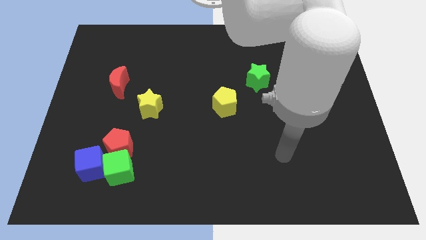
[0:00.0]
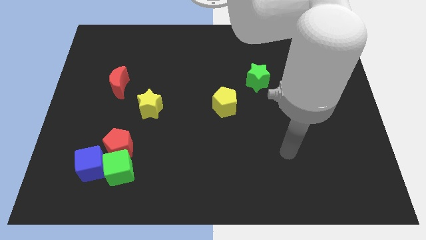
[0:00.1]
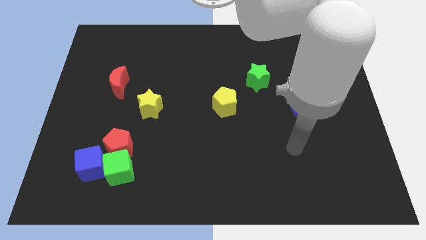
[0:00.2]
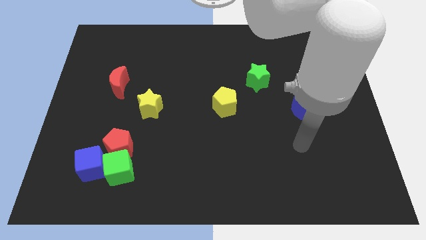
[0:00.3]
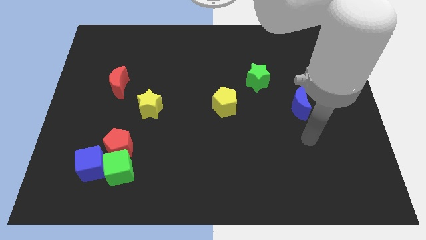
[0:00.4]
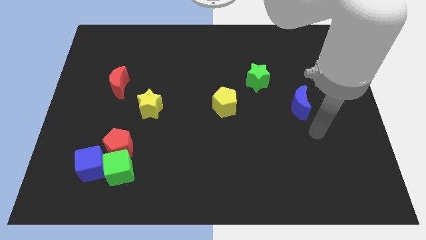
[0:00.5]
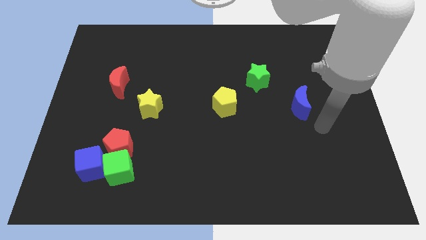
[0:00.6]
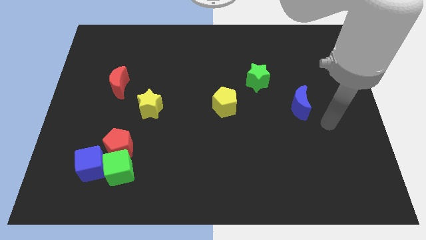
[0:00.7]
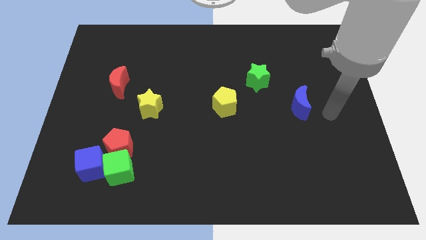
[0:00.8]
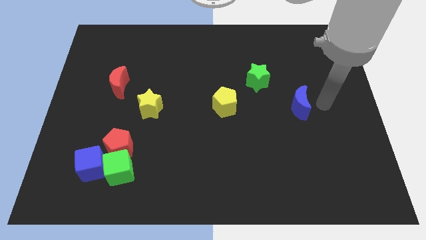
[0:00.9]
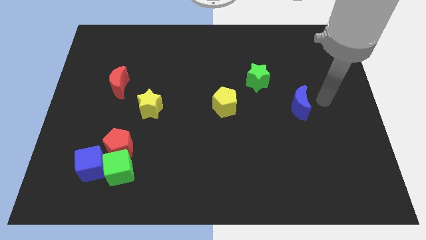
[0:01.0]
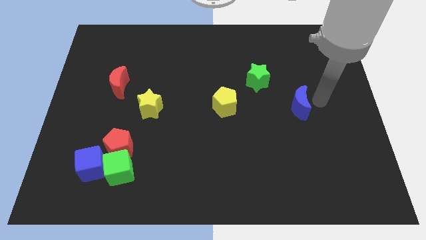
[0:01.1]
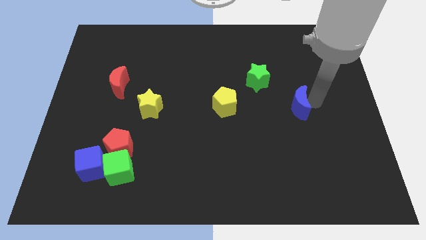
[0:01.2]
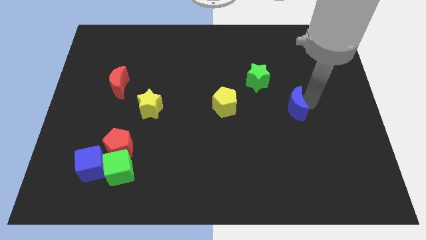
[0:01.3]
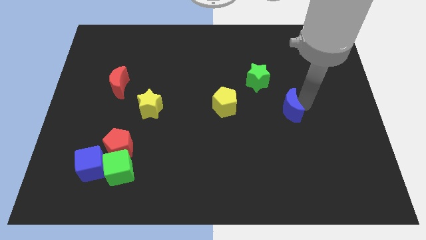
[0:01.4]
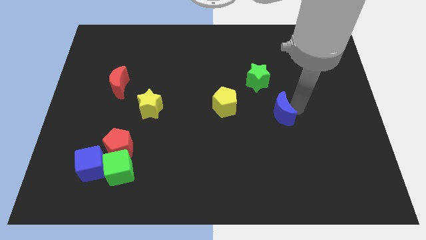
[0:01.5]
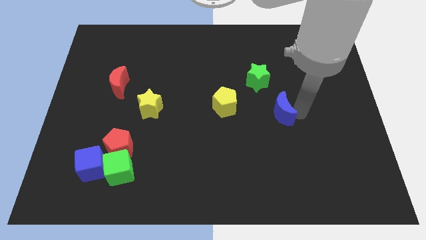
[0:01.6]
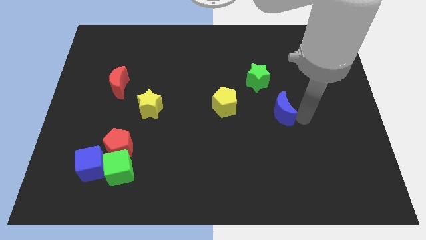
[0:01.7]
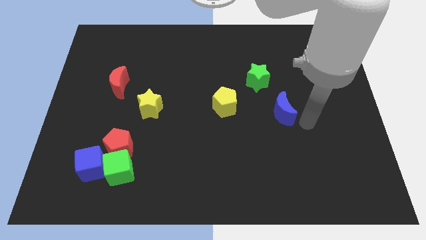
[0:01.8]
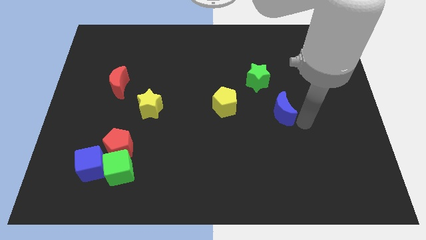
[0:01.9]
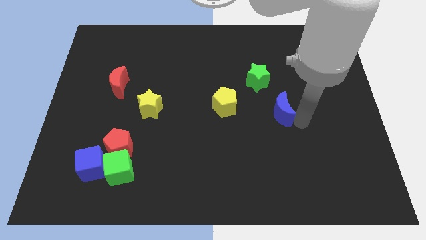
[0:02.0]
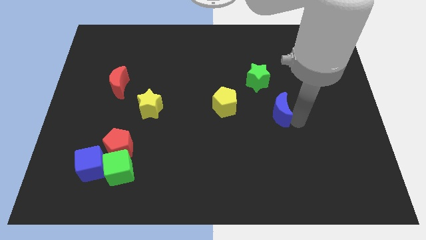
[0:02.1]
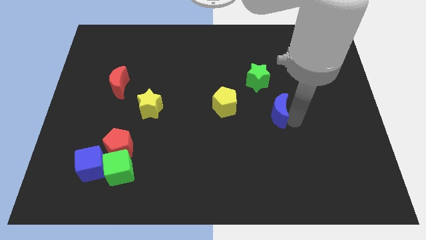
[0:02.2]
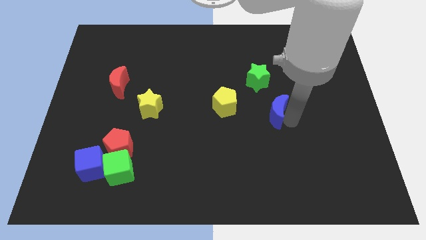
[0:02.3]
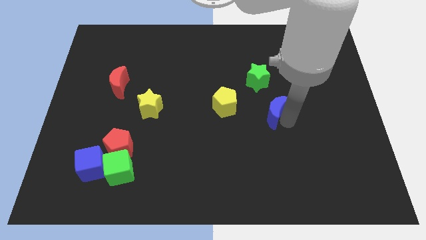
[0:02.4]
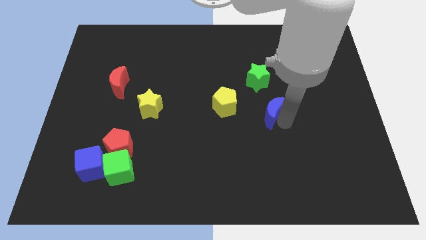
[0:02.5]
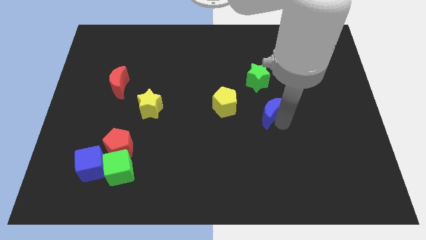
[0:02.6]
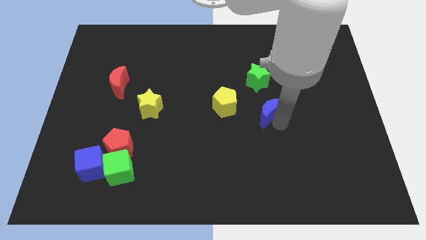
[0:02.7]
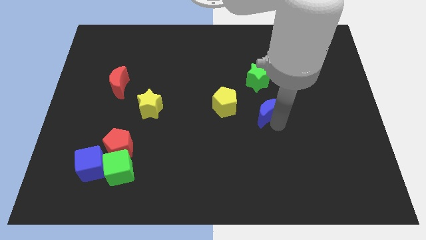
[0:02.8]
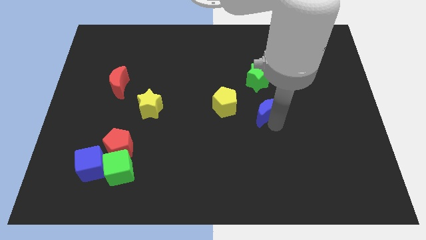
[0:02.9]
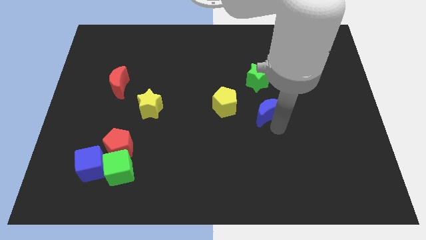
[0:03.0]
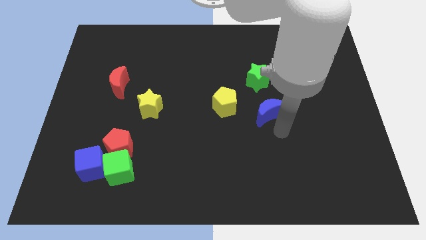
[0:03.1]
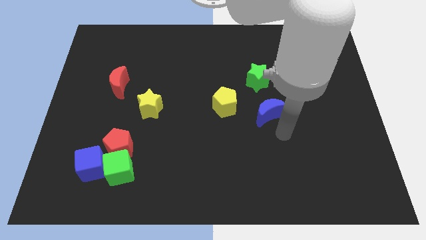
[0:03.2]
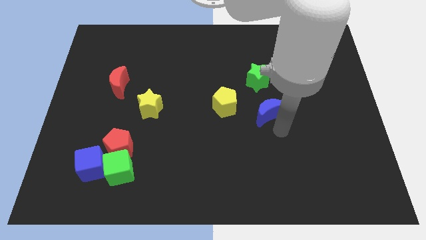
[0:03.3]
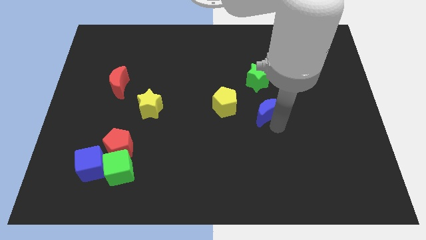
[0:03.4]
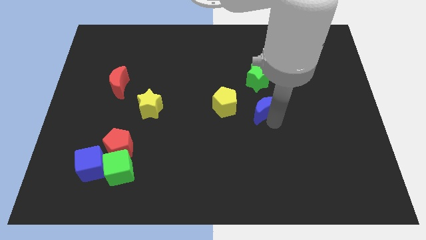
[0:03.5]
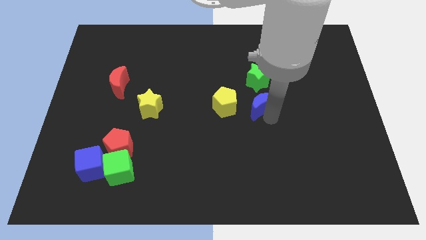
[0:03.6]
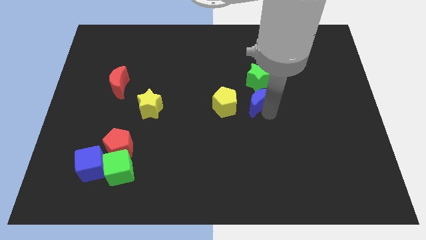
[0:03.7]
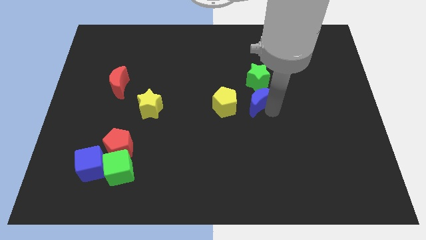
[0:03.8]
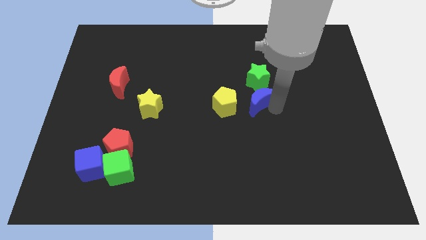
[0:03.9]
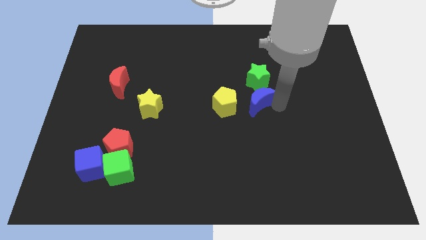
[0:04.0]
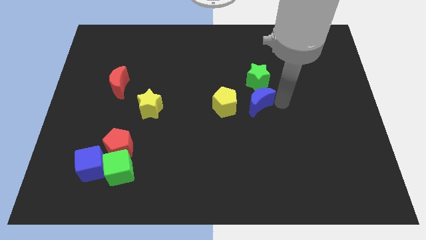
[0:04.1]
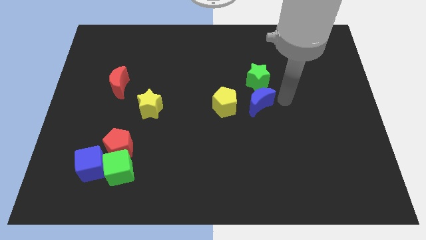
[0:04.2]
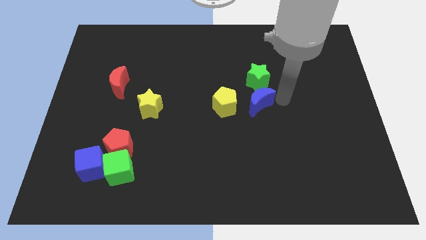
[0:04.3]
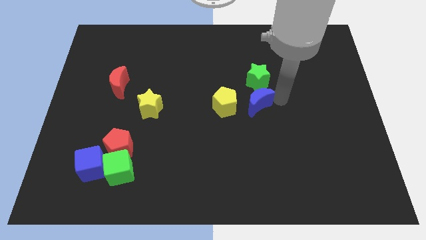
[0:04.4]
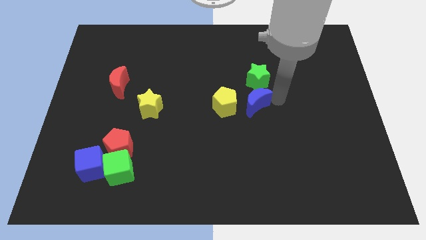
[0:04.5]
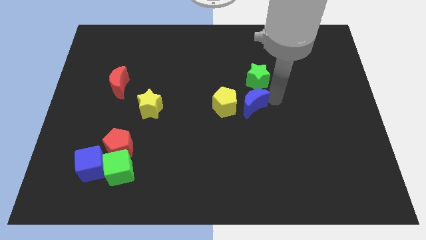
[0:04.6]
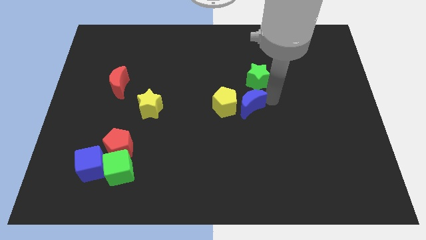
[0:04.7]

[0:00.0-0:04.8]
move the blue moon next to the yellow pentagon

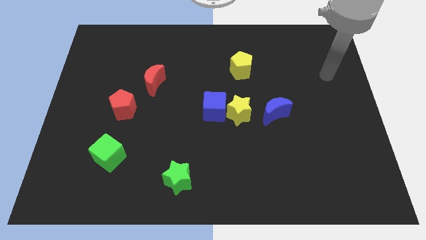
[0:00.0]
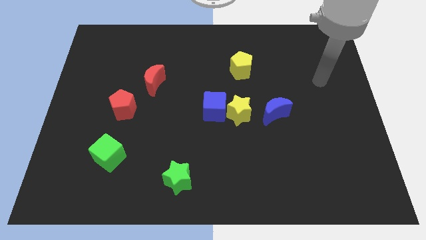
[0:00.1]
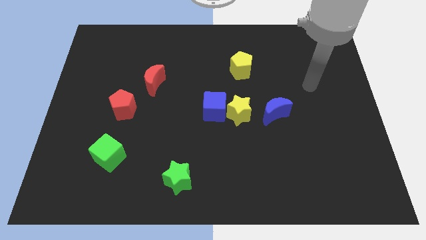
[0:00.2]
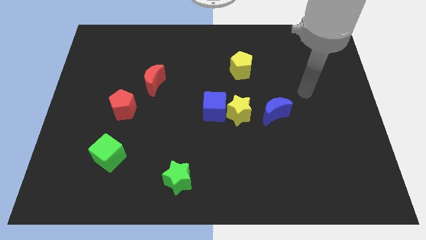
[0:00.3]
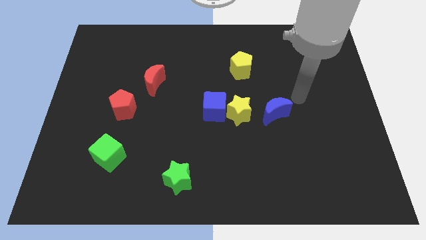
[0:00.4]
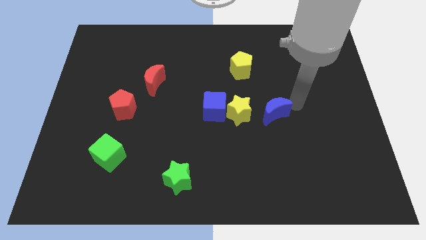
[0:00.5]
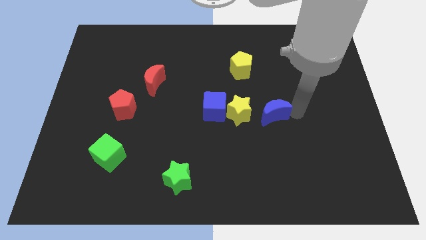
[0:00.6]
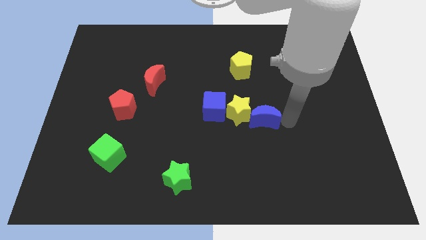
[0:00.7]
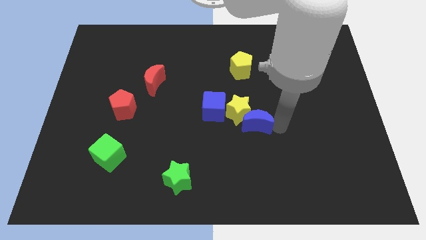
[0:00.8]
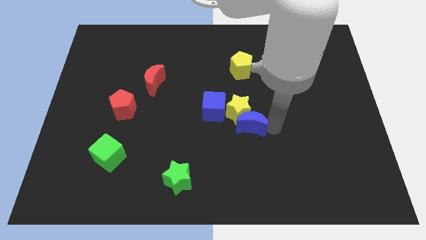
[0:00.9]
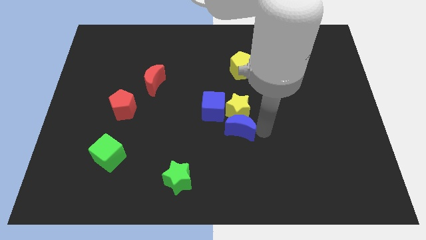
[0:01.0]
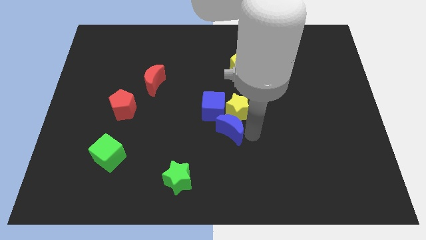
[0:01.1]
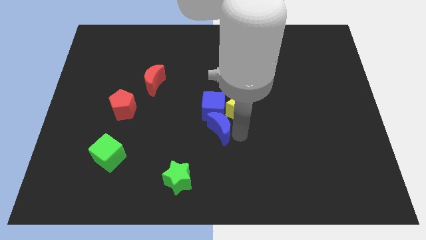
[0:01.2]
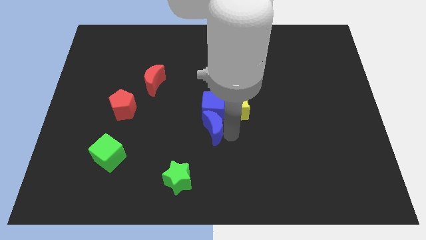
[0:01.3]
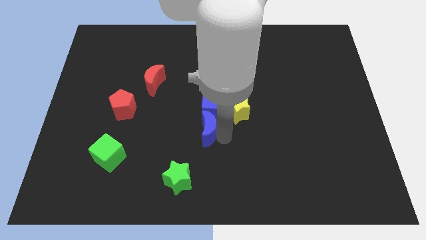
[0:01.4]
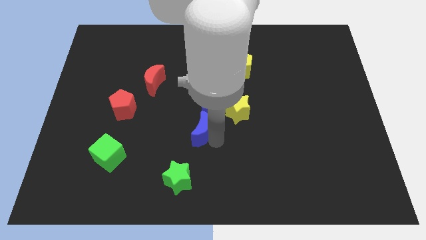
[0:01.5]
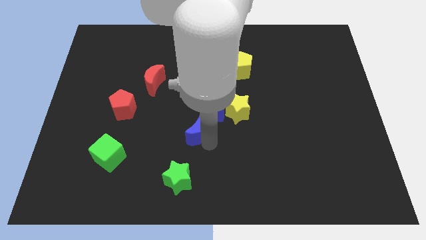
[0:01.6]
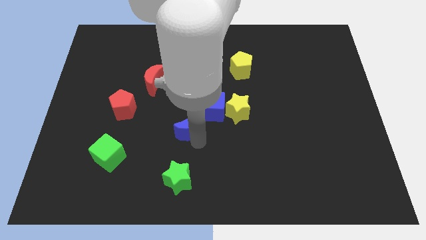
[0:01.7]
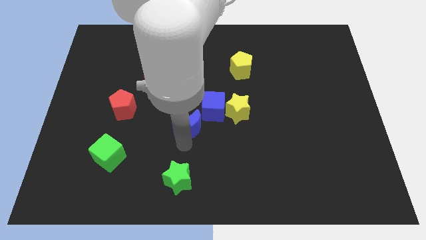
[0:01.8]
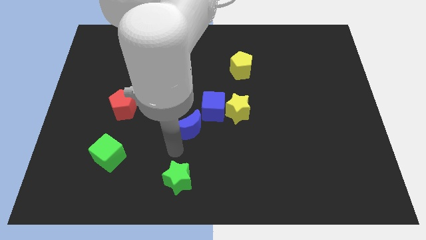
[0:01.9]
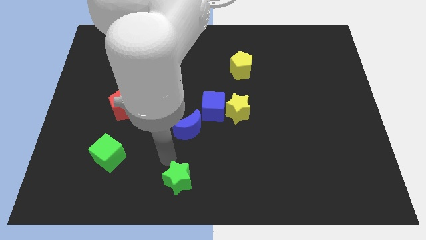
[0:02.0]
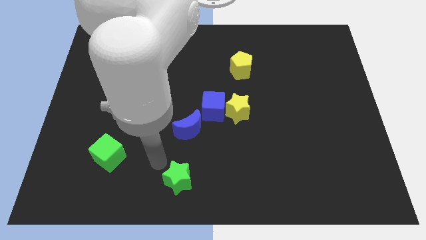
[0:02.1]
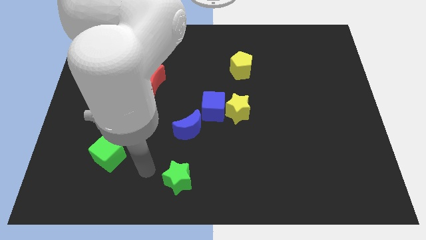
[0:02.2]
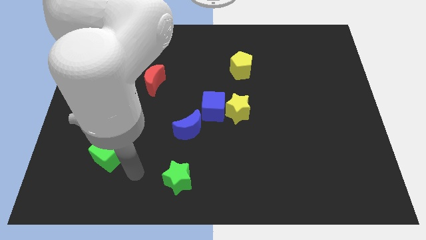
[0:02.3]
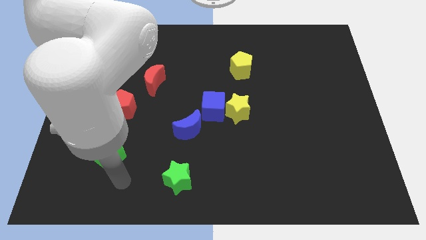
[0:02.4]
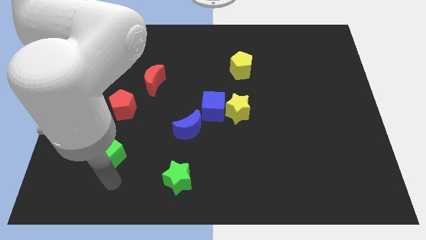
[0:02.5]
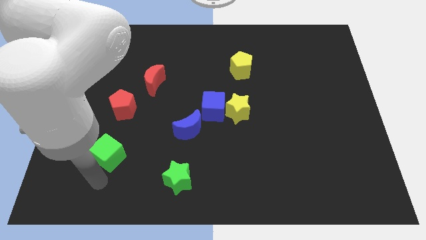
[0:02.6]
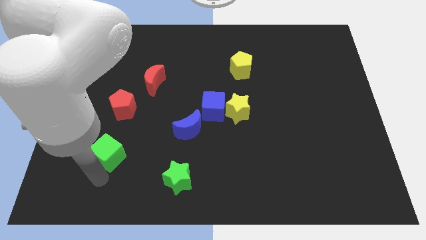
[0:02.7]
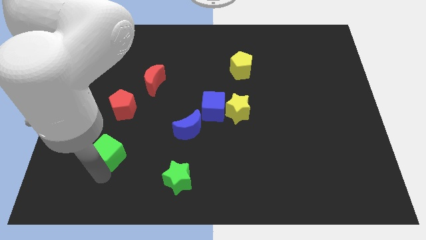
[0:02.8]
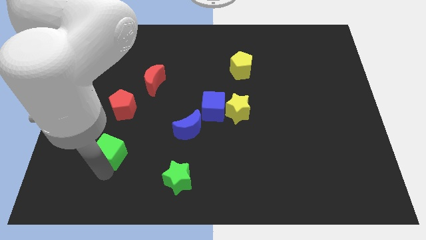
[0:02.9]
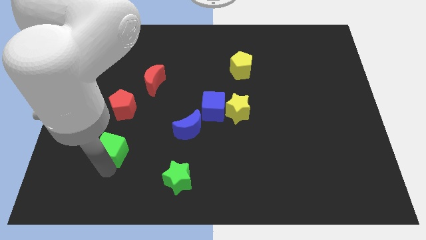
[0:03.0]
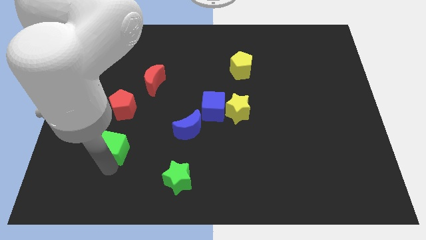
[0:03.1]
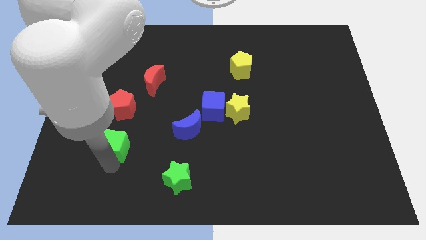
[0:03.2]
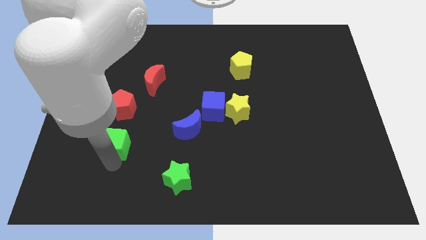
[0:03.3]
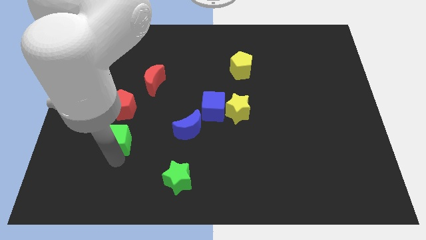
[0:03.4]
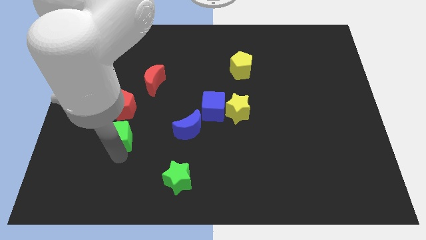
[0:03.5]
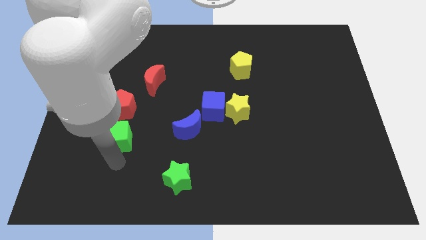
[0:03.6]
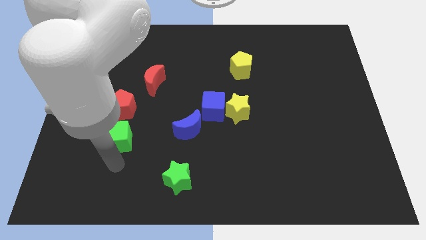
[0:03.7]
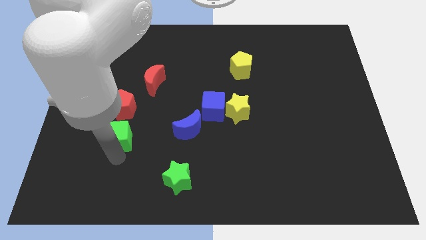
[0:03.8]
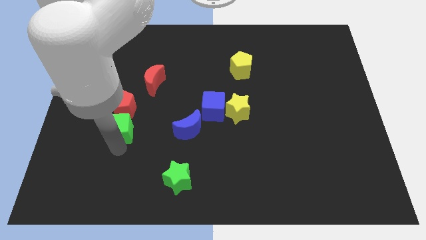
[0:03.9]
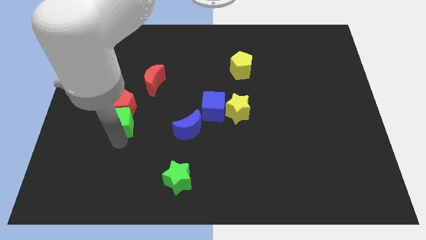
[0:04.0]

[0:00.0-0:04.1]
put the green cube to the red pentagon
